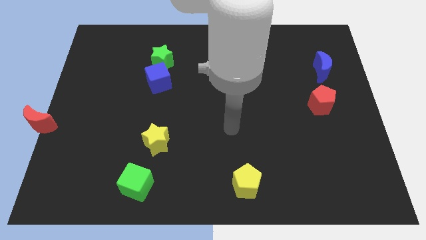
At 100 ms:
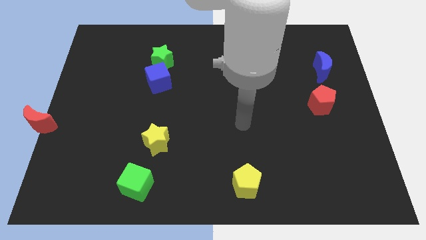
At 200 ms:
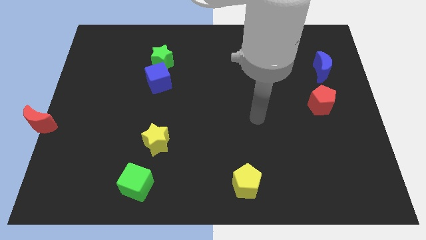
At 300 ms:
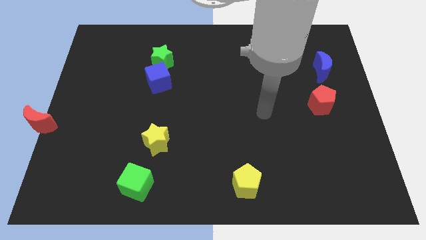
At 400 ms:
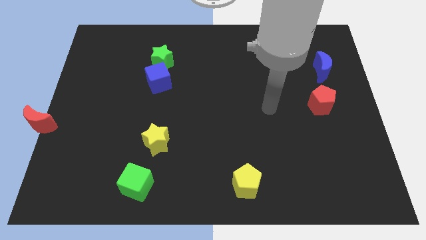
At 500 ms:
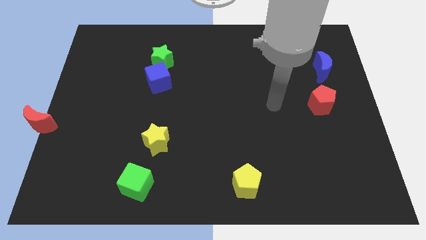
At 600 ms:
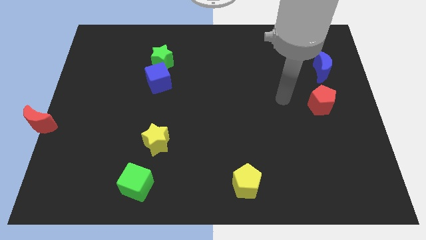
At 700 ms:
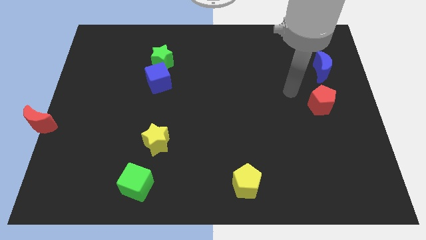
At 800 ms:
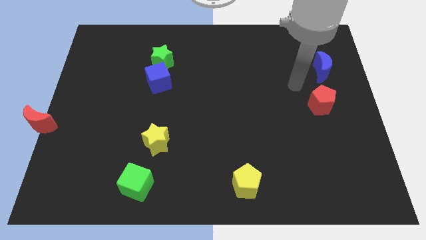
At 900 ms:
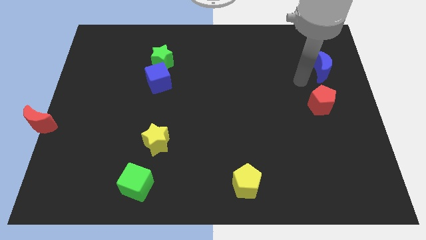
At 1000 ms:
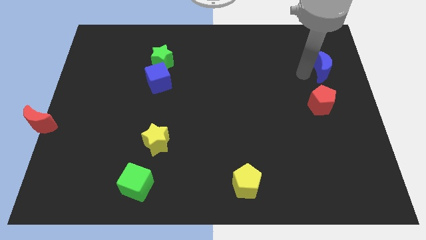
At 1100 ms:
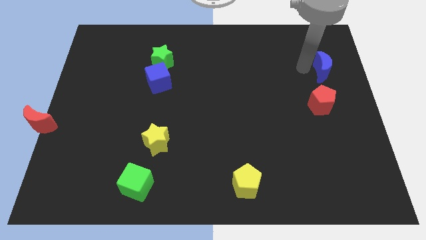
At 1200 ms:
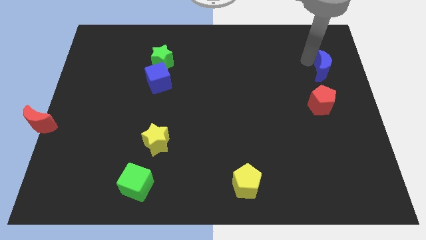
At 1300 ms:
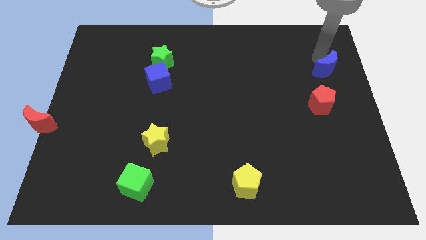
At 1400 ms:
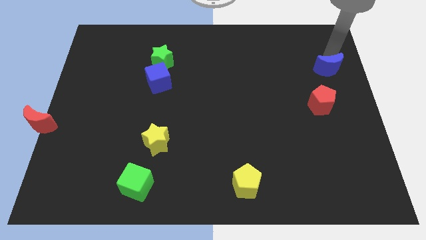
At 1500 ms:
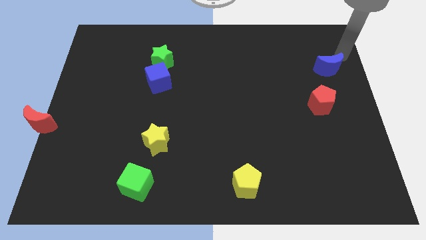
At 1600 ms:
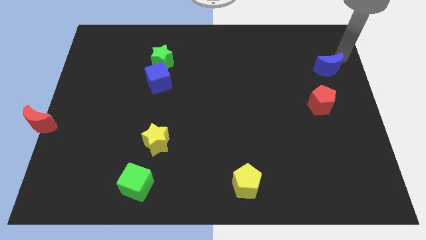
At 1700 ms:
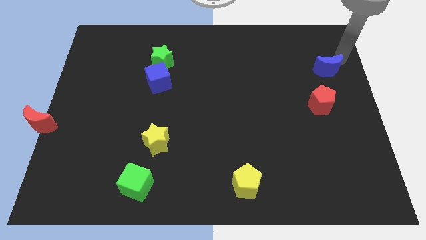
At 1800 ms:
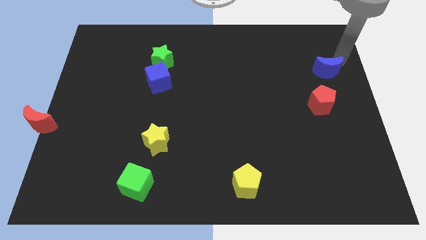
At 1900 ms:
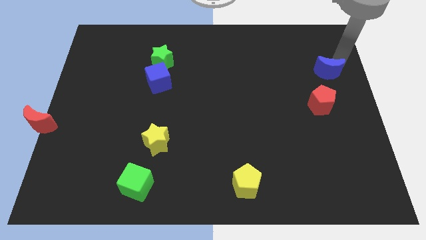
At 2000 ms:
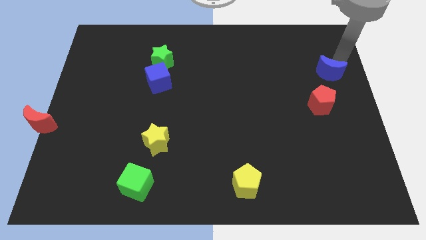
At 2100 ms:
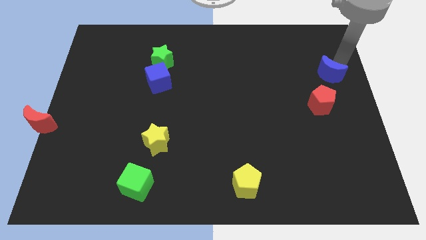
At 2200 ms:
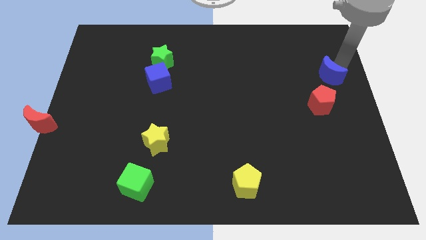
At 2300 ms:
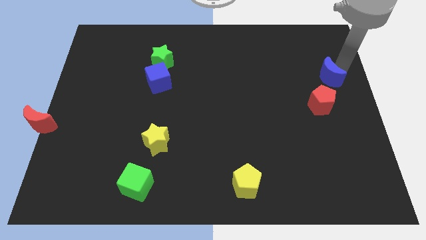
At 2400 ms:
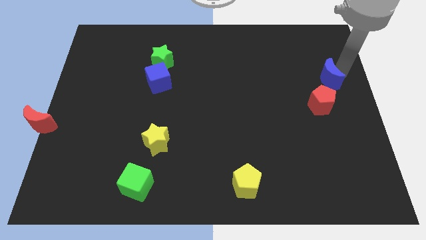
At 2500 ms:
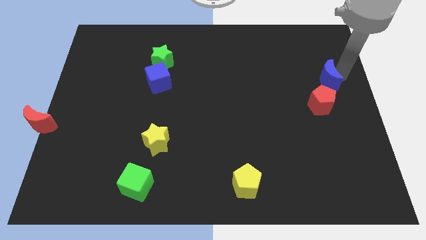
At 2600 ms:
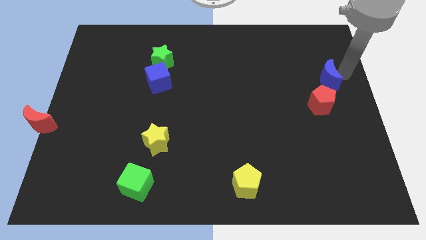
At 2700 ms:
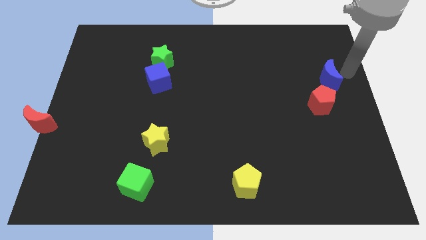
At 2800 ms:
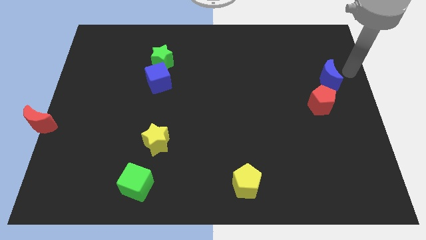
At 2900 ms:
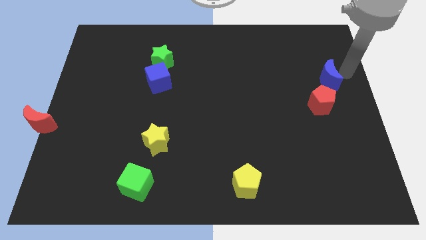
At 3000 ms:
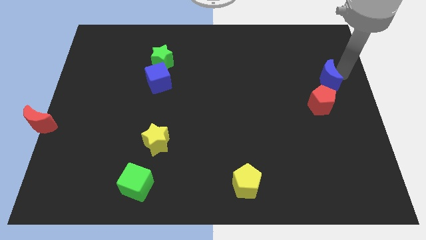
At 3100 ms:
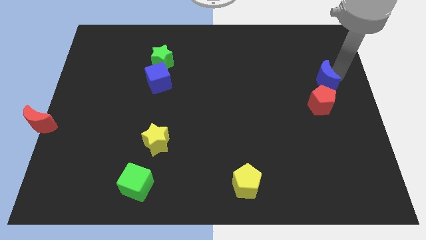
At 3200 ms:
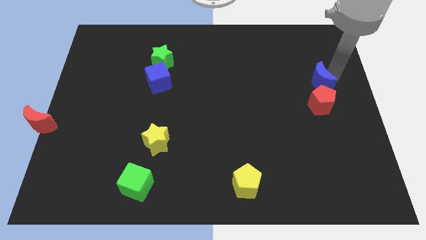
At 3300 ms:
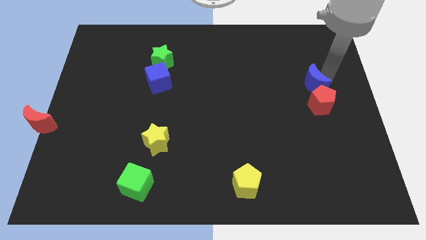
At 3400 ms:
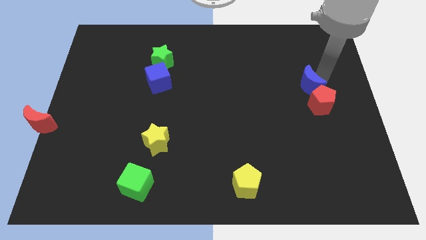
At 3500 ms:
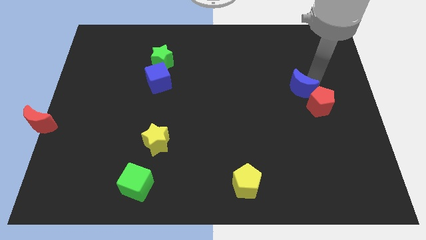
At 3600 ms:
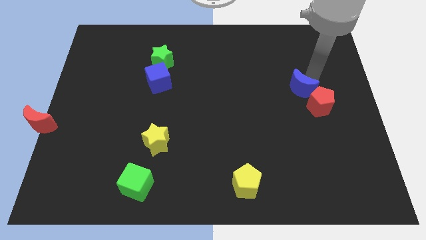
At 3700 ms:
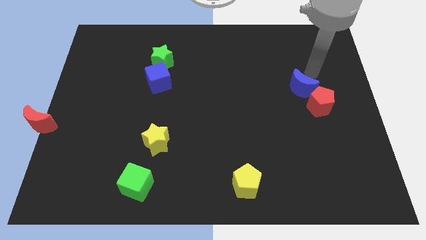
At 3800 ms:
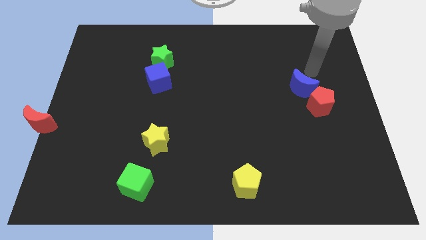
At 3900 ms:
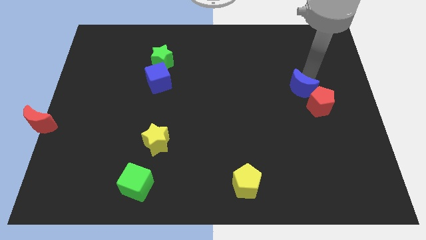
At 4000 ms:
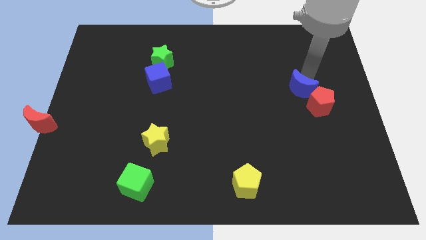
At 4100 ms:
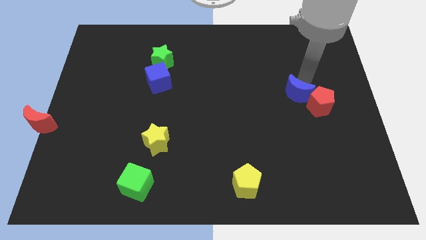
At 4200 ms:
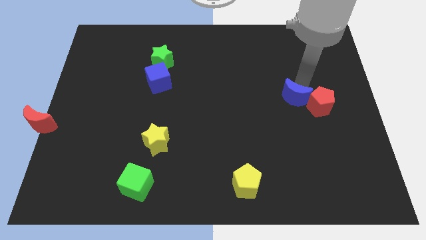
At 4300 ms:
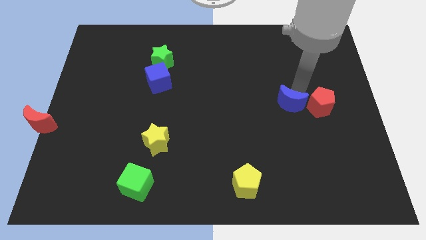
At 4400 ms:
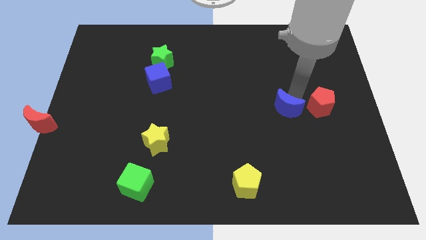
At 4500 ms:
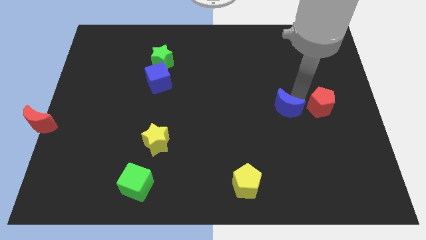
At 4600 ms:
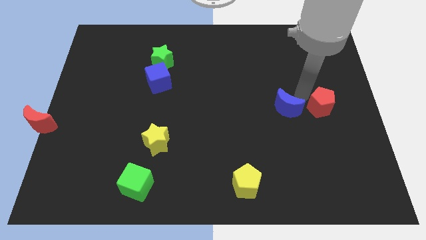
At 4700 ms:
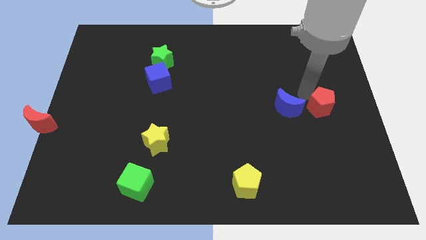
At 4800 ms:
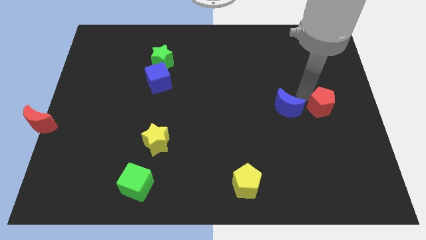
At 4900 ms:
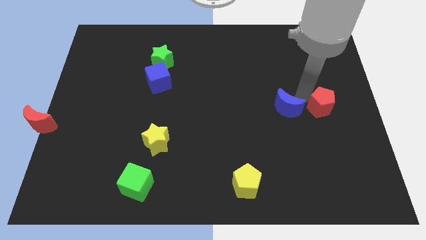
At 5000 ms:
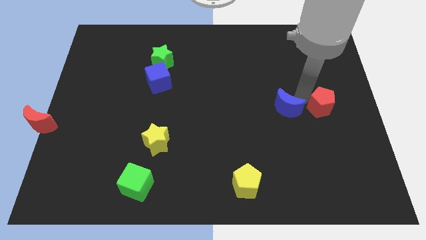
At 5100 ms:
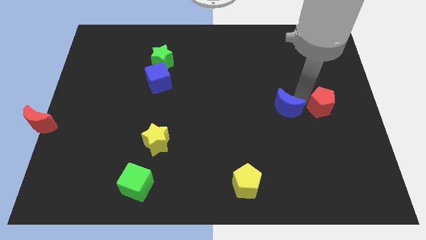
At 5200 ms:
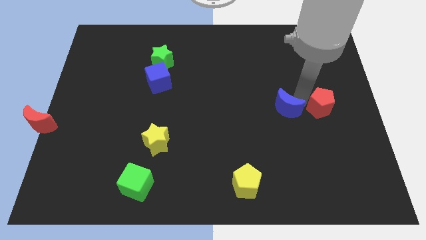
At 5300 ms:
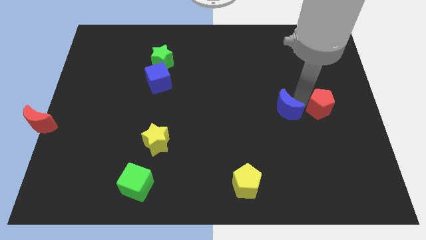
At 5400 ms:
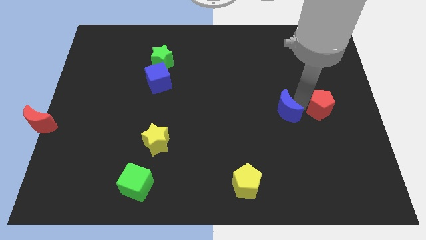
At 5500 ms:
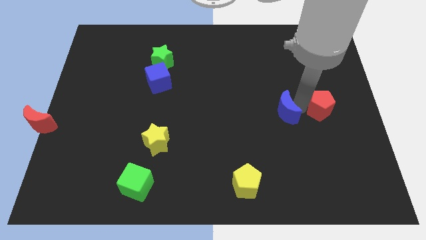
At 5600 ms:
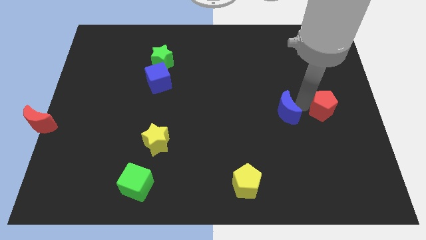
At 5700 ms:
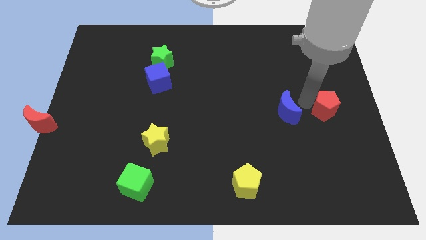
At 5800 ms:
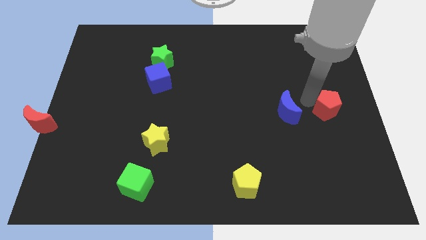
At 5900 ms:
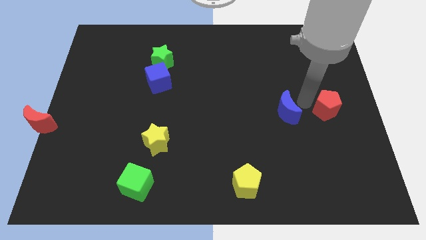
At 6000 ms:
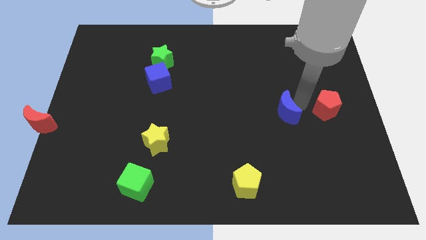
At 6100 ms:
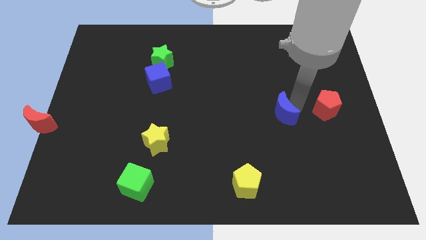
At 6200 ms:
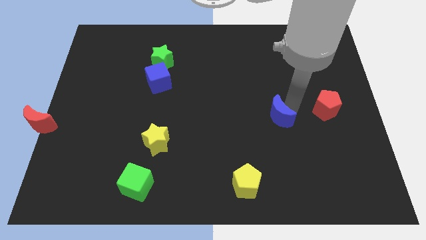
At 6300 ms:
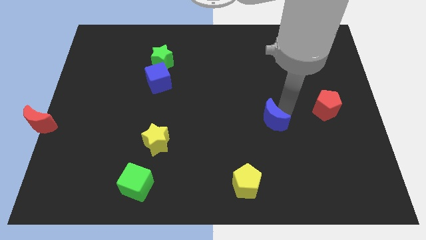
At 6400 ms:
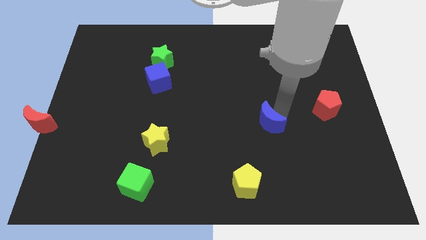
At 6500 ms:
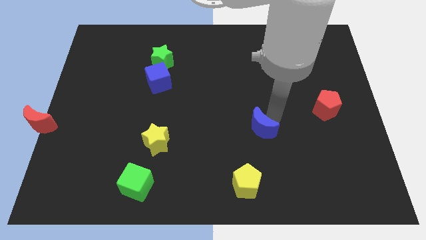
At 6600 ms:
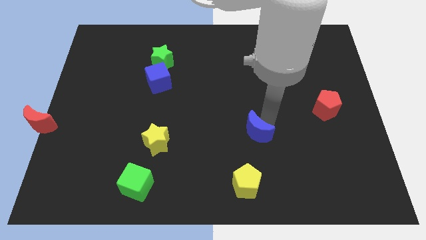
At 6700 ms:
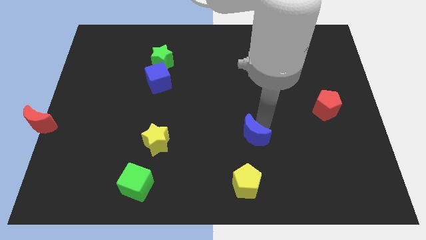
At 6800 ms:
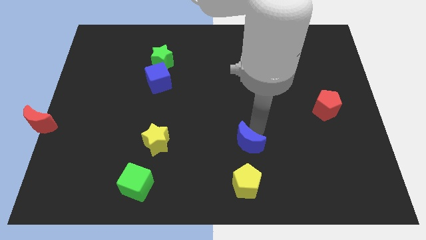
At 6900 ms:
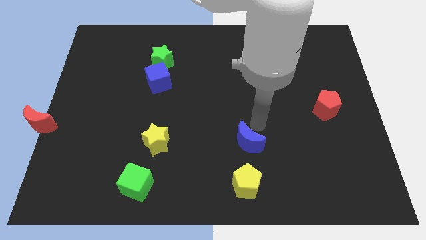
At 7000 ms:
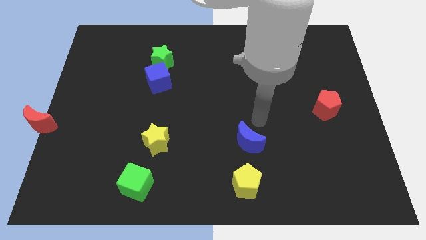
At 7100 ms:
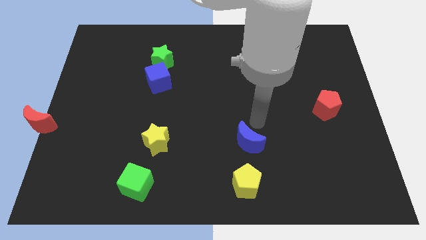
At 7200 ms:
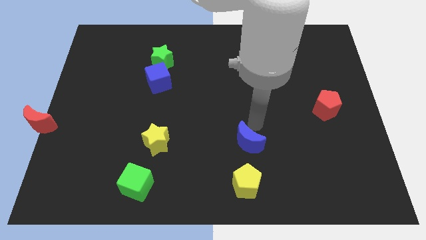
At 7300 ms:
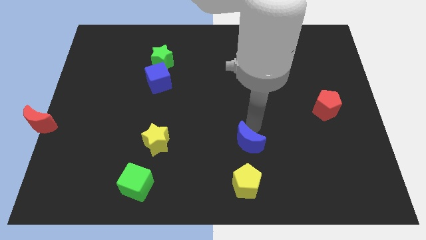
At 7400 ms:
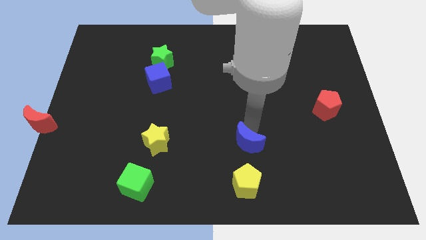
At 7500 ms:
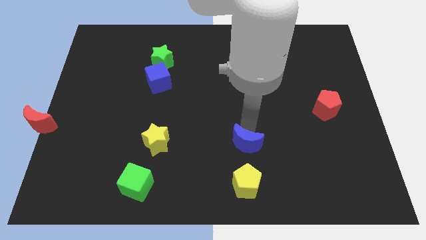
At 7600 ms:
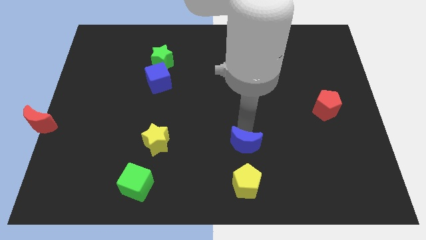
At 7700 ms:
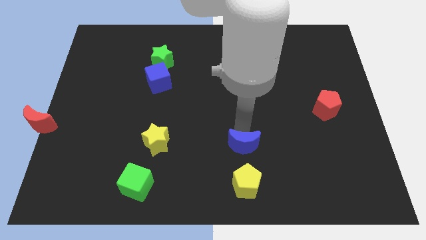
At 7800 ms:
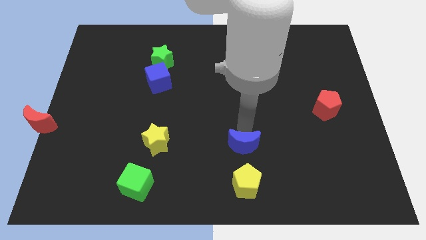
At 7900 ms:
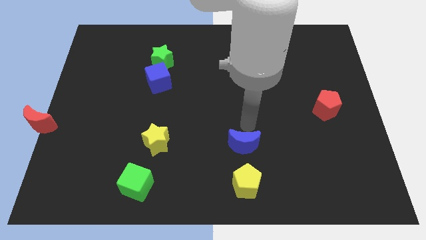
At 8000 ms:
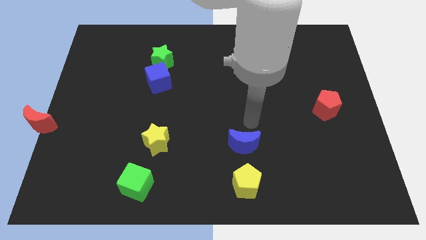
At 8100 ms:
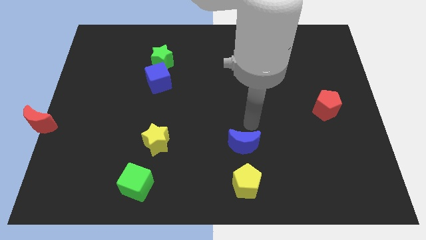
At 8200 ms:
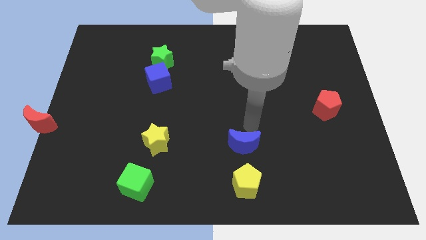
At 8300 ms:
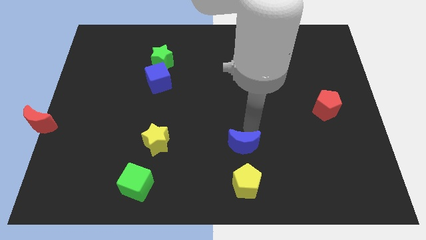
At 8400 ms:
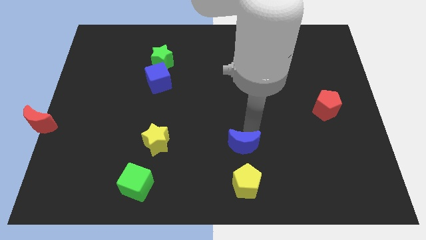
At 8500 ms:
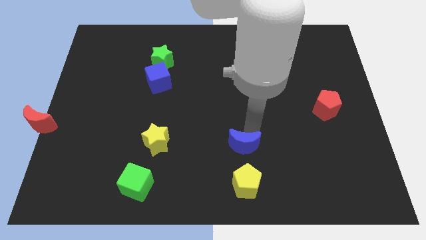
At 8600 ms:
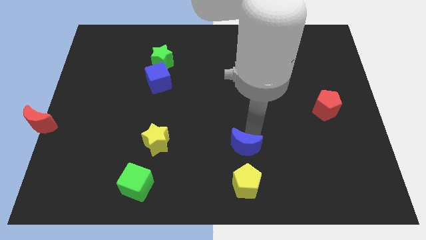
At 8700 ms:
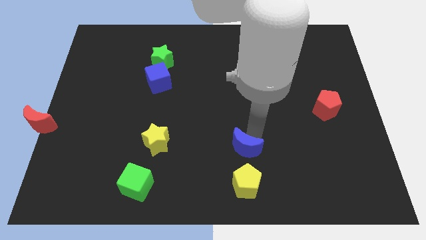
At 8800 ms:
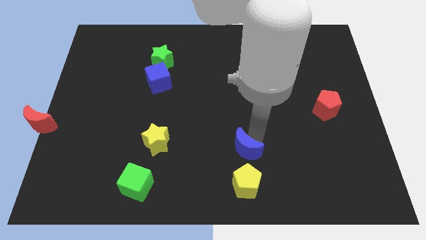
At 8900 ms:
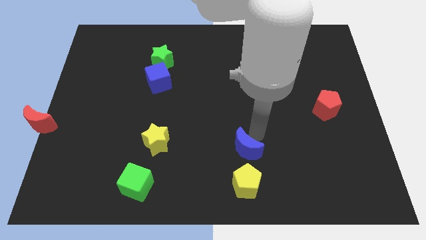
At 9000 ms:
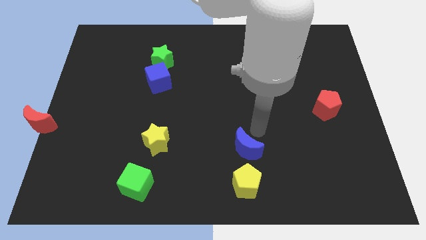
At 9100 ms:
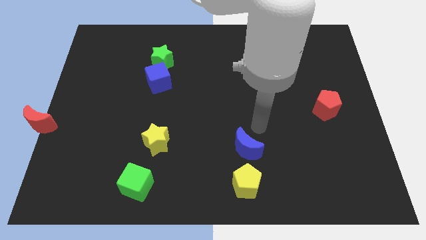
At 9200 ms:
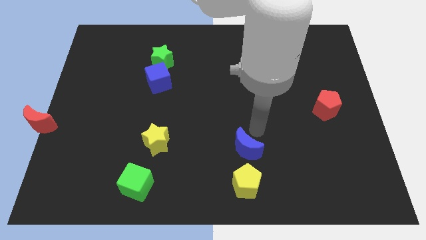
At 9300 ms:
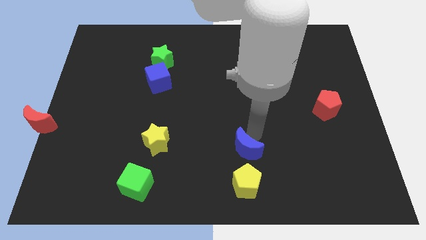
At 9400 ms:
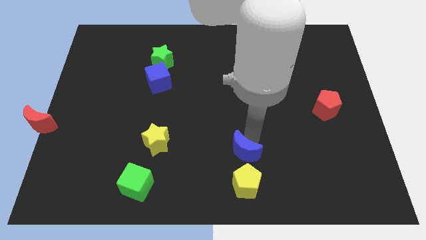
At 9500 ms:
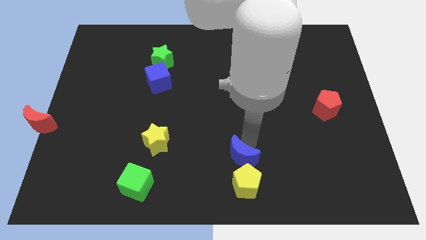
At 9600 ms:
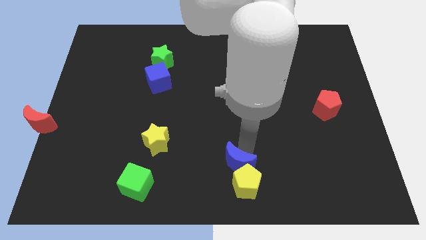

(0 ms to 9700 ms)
put the blue moon to the bottom side
